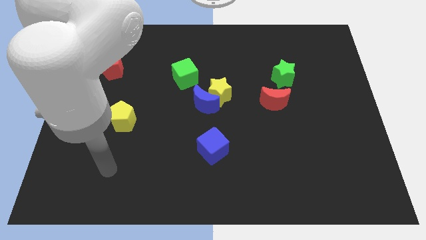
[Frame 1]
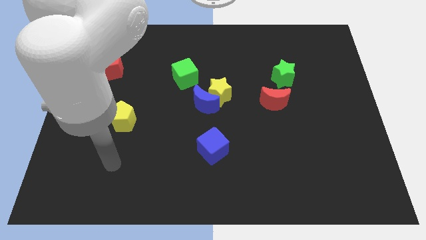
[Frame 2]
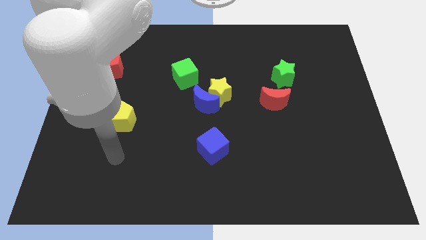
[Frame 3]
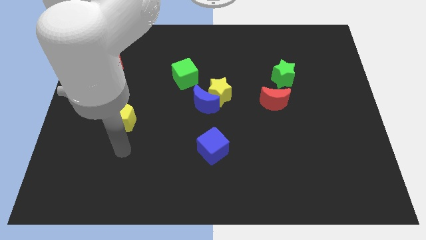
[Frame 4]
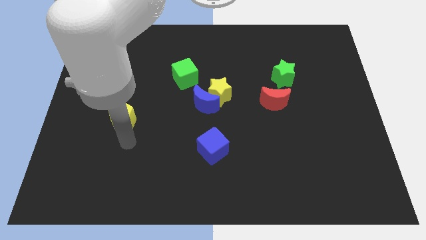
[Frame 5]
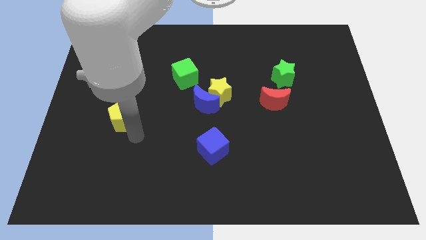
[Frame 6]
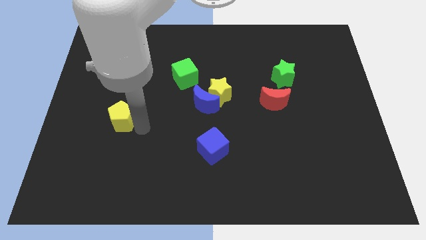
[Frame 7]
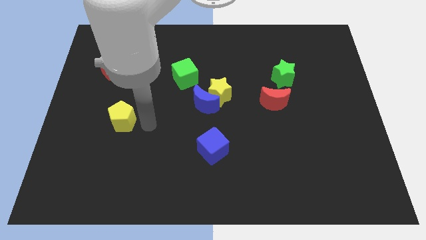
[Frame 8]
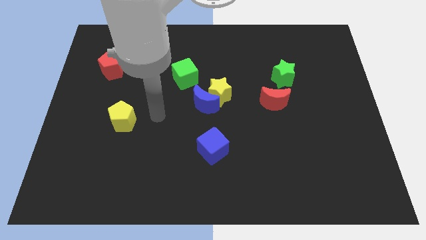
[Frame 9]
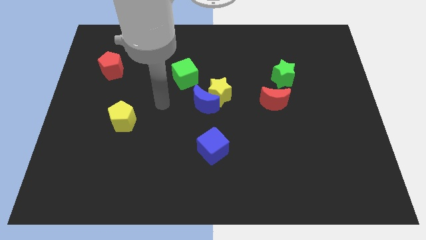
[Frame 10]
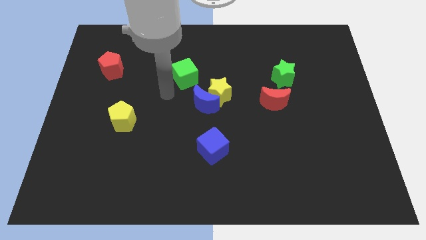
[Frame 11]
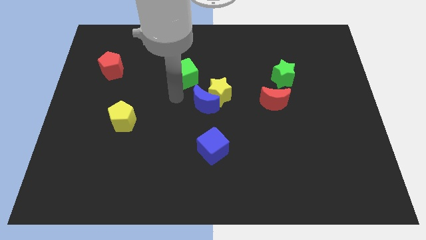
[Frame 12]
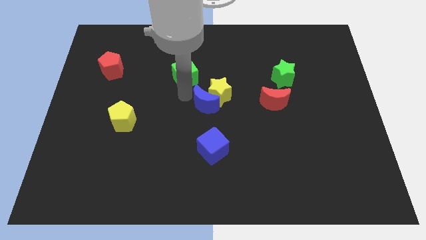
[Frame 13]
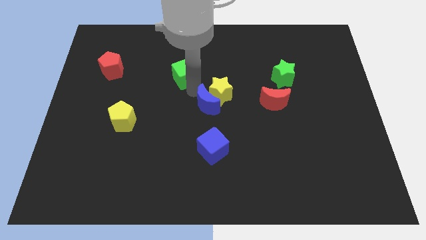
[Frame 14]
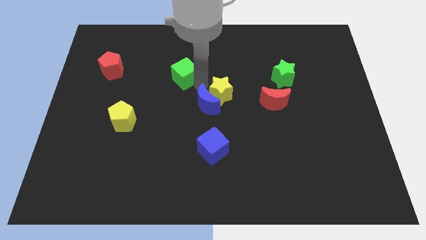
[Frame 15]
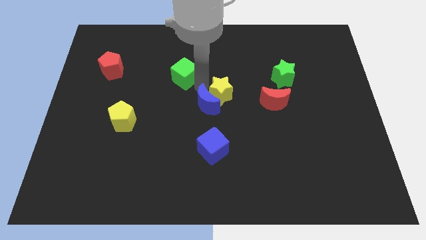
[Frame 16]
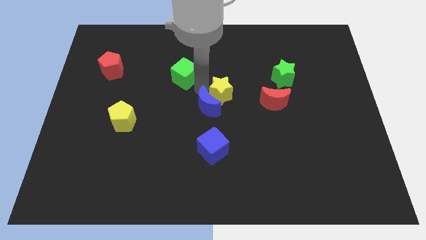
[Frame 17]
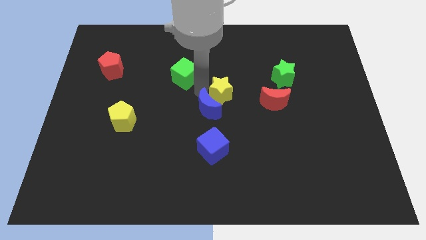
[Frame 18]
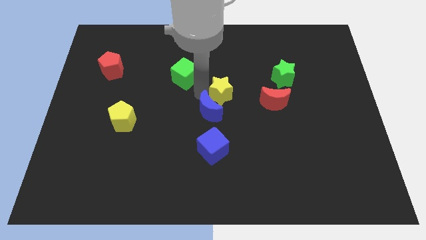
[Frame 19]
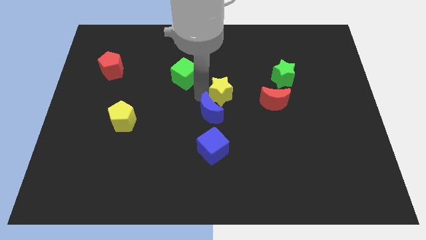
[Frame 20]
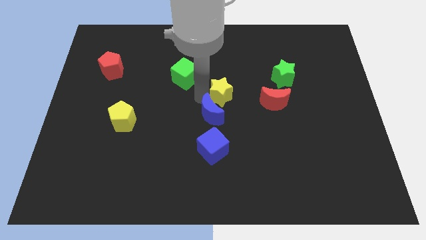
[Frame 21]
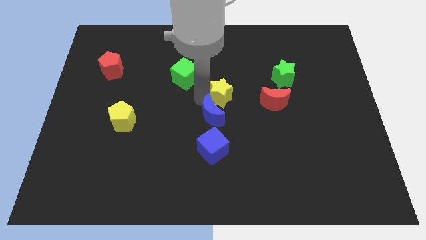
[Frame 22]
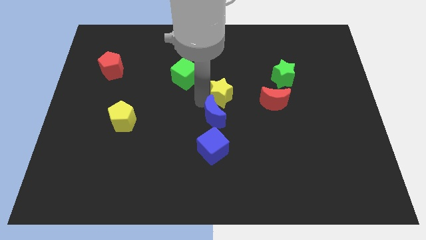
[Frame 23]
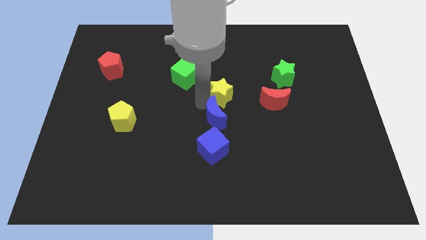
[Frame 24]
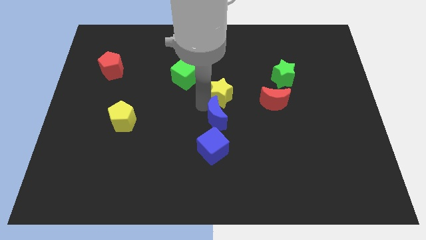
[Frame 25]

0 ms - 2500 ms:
move the blue moon away from the yellow star and green cube

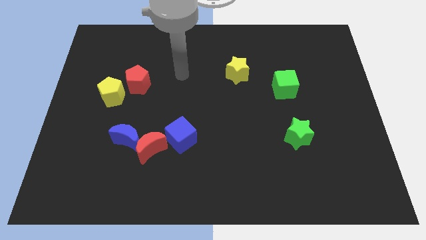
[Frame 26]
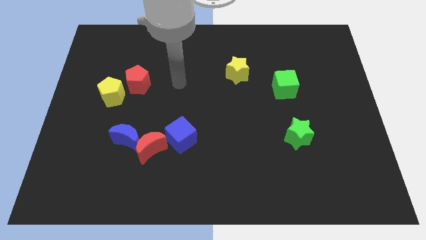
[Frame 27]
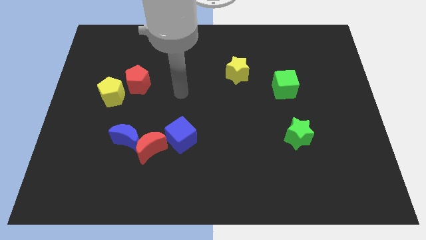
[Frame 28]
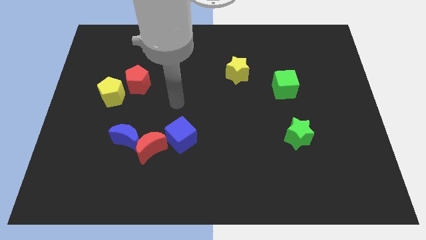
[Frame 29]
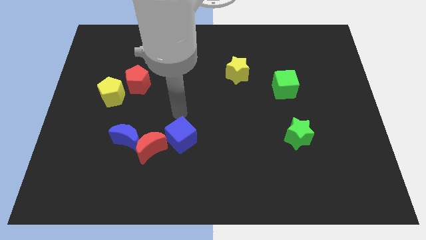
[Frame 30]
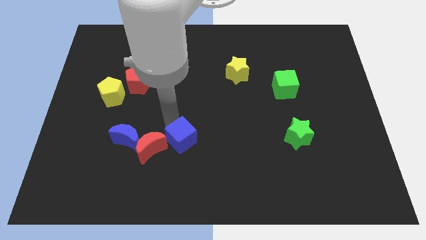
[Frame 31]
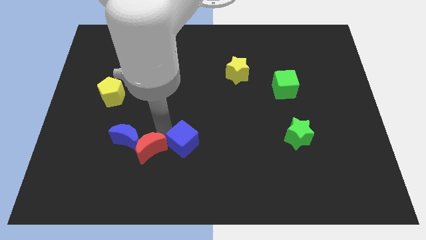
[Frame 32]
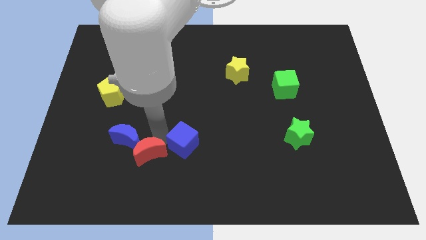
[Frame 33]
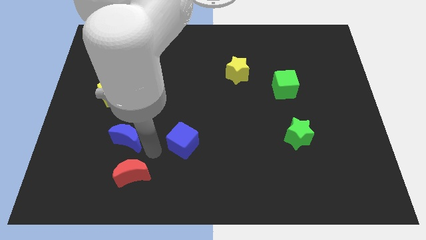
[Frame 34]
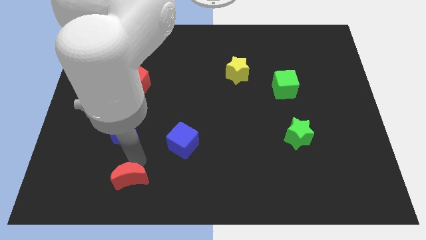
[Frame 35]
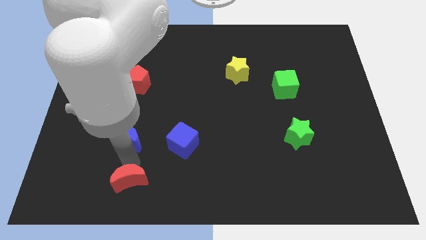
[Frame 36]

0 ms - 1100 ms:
move the blue moon away from the red moon

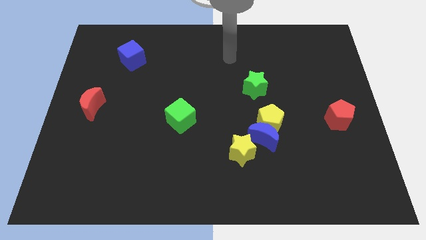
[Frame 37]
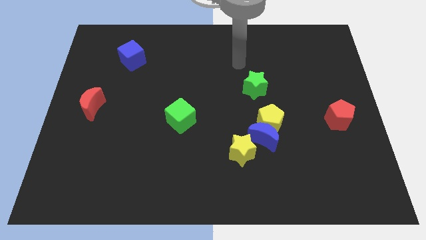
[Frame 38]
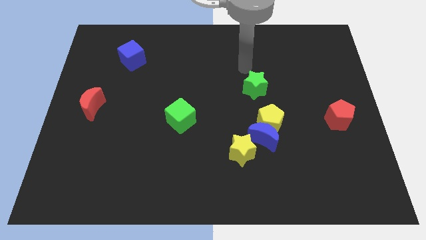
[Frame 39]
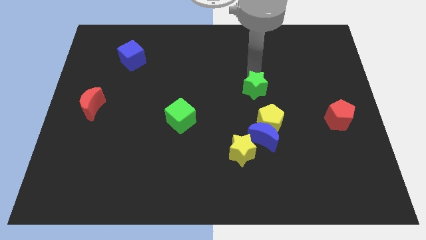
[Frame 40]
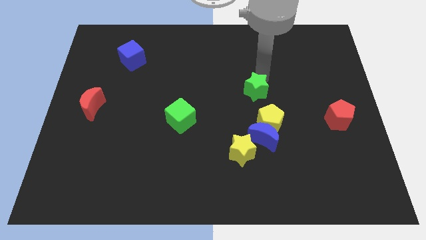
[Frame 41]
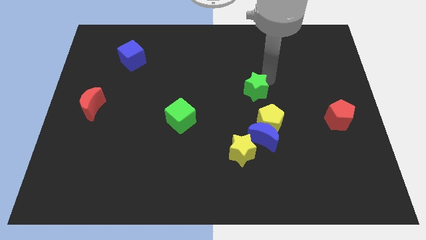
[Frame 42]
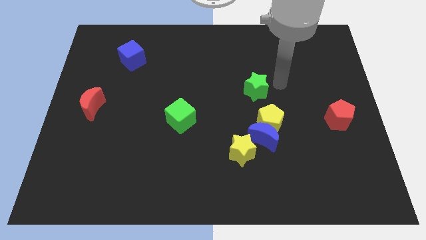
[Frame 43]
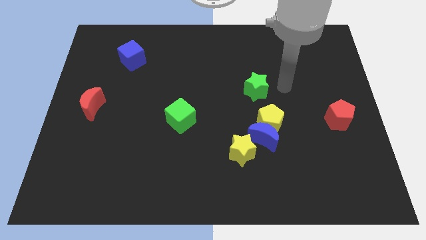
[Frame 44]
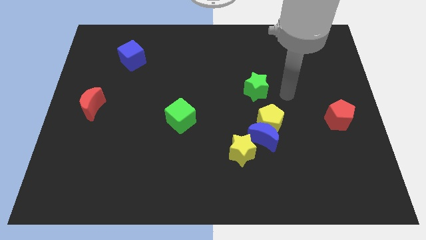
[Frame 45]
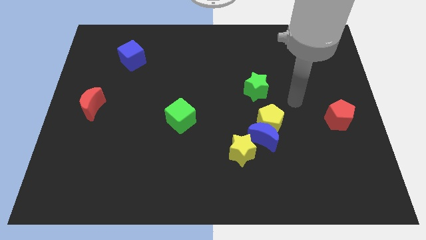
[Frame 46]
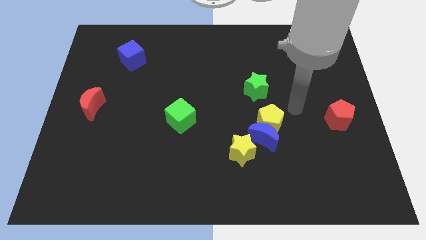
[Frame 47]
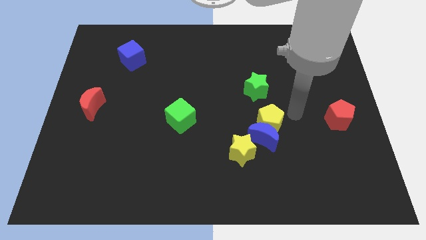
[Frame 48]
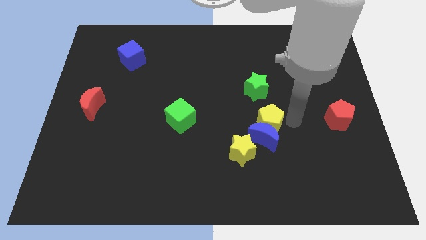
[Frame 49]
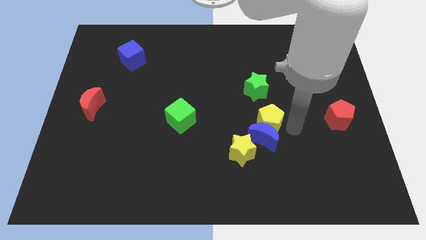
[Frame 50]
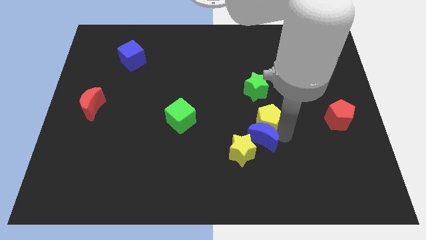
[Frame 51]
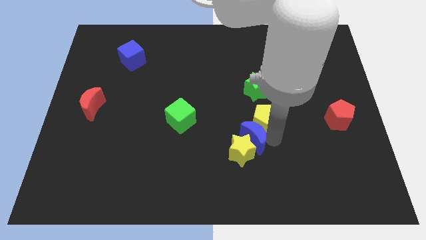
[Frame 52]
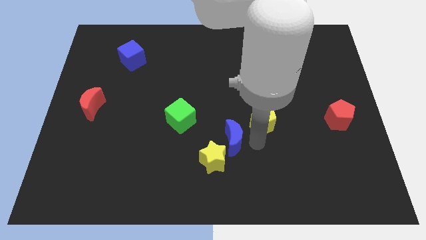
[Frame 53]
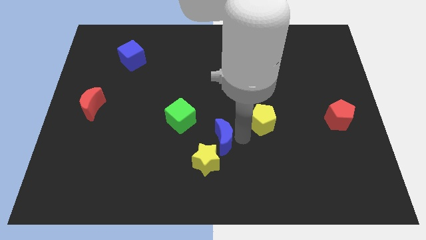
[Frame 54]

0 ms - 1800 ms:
separate the yellow pentagon from the blue moon

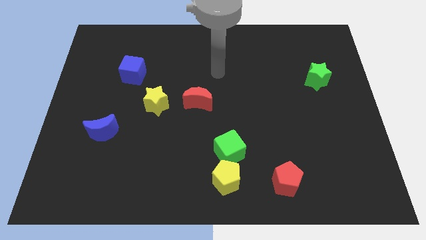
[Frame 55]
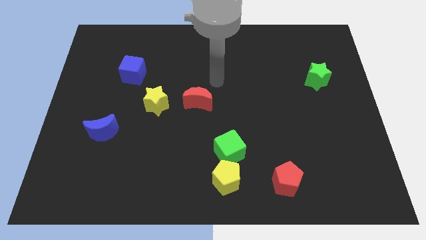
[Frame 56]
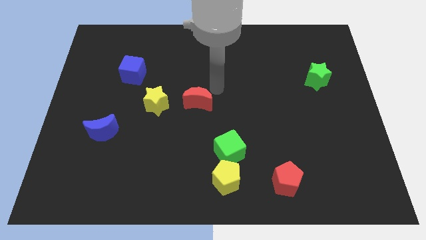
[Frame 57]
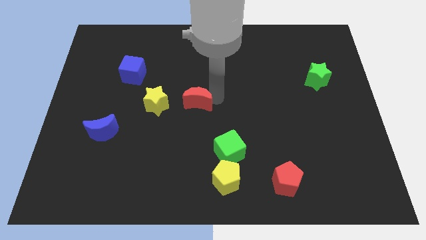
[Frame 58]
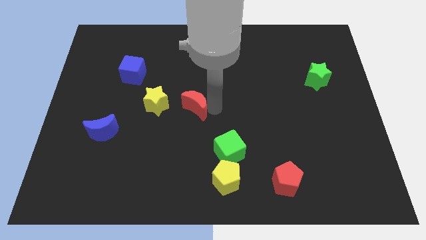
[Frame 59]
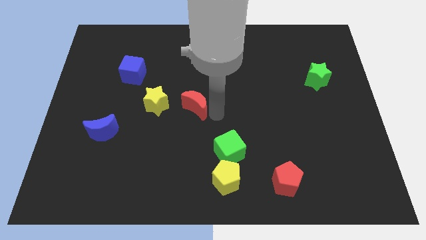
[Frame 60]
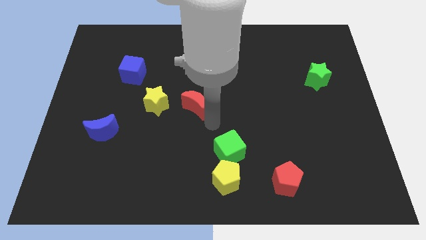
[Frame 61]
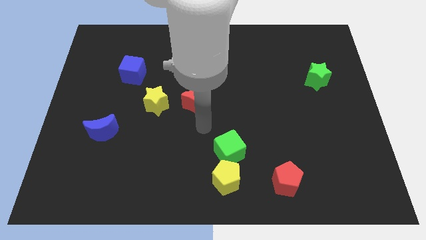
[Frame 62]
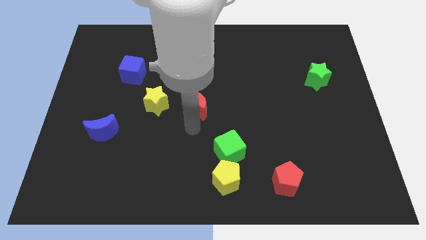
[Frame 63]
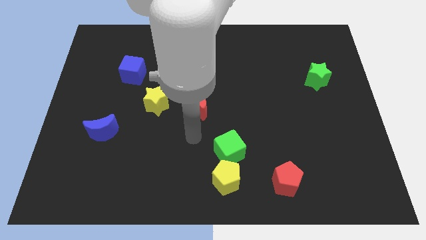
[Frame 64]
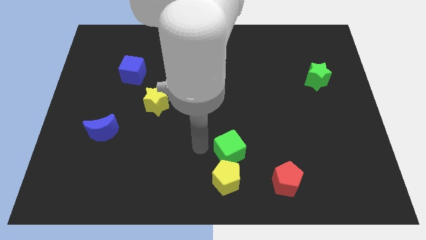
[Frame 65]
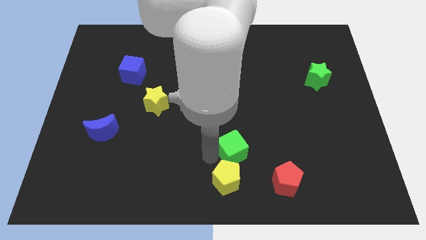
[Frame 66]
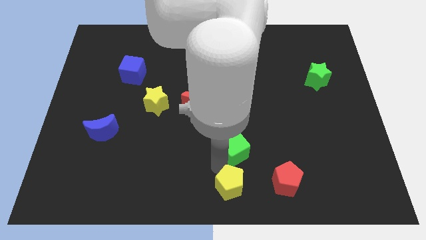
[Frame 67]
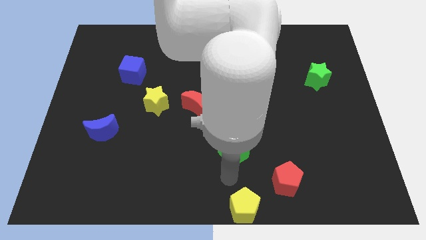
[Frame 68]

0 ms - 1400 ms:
separate the green cube from the yellow pentagon

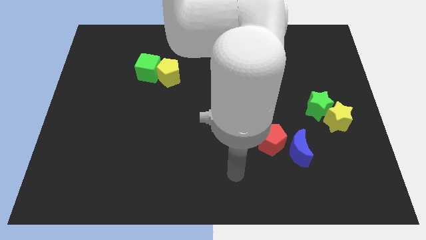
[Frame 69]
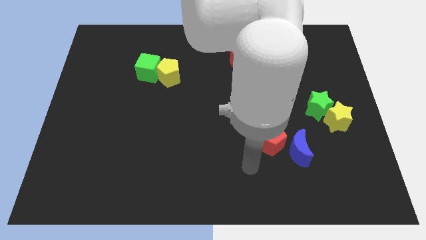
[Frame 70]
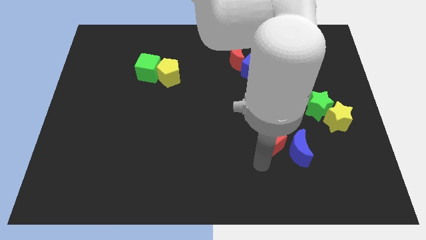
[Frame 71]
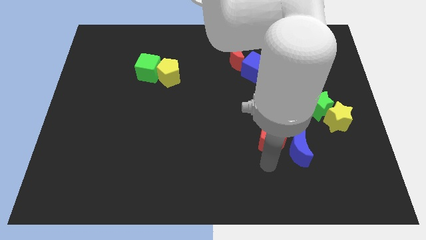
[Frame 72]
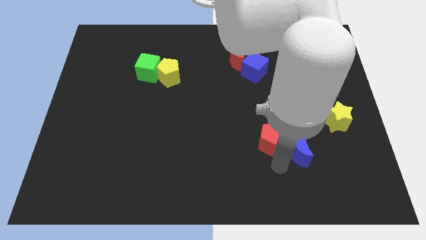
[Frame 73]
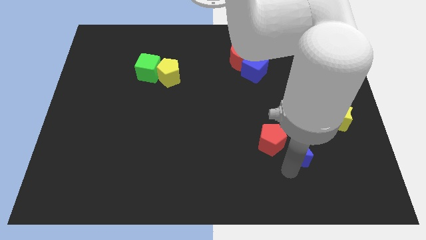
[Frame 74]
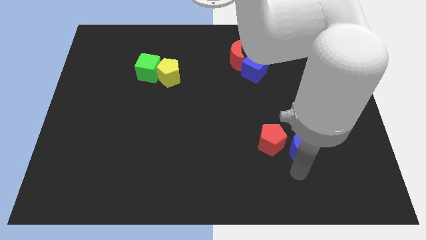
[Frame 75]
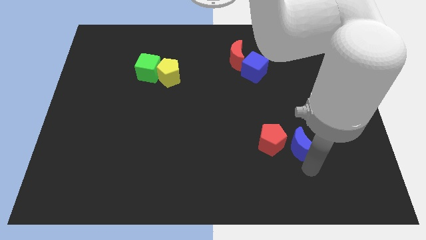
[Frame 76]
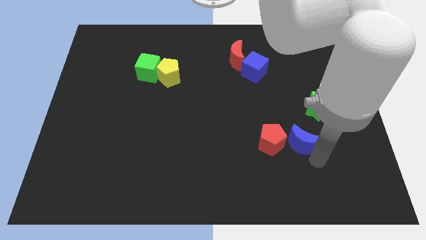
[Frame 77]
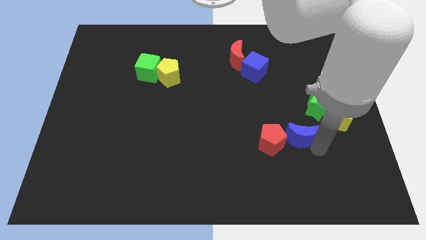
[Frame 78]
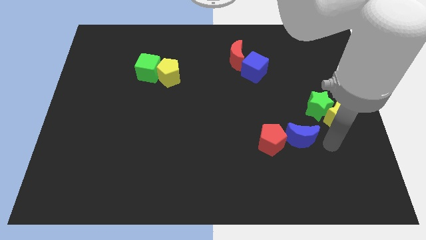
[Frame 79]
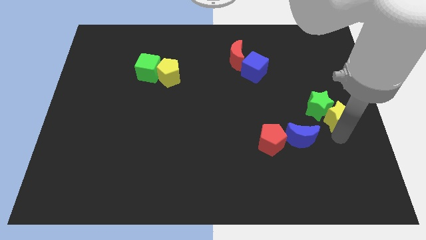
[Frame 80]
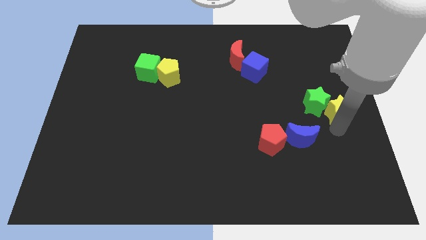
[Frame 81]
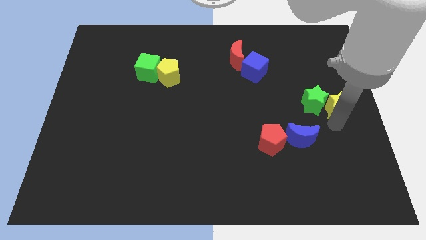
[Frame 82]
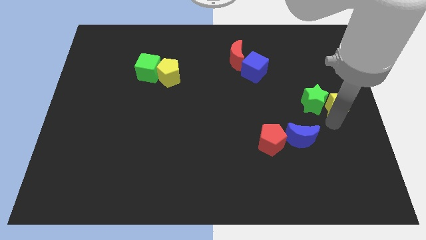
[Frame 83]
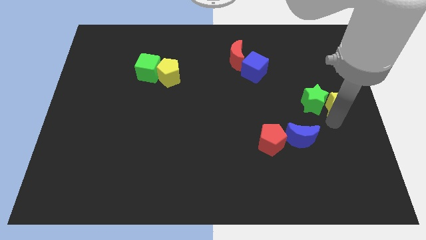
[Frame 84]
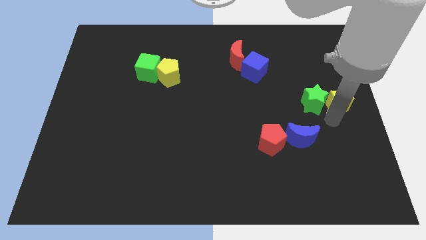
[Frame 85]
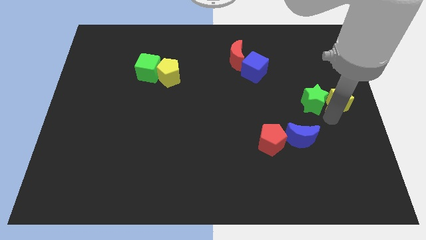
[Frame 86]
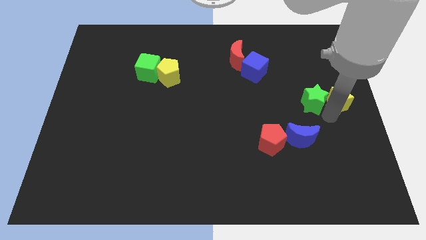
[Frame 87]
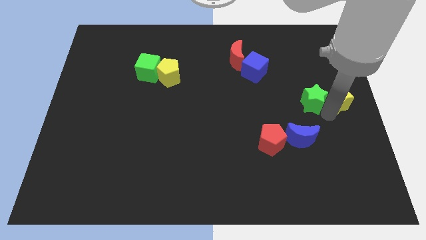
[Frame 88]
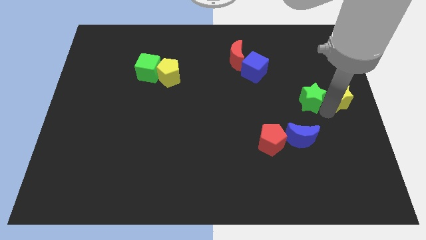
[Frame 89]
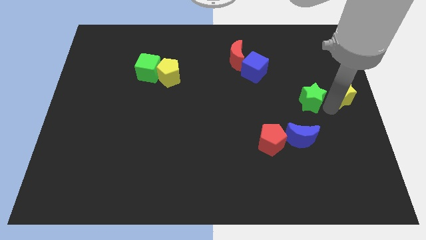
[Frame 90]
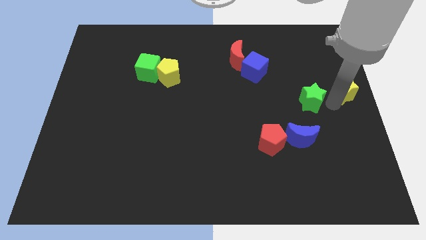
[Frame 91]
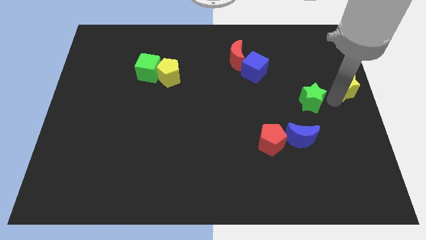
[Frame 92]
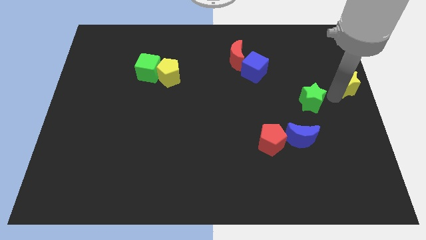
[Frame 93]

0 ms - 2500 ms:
move the green star away from the yellow star
